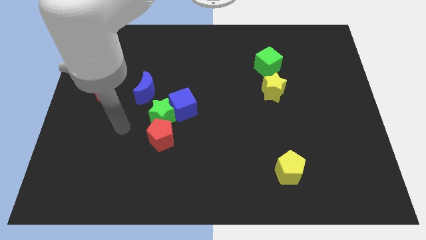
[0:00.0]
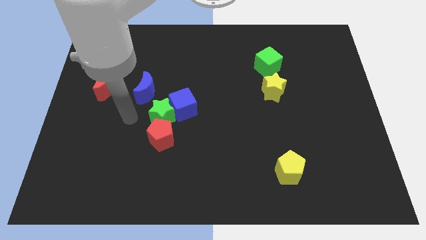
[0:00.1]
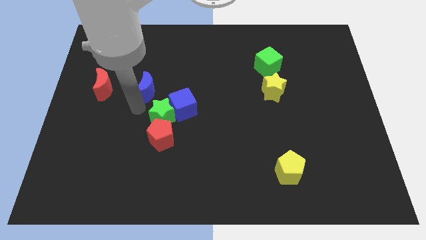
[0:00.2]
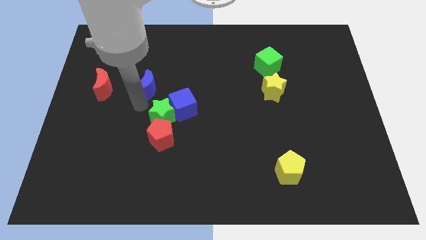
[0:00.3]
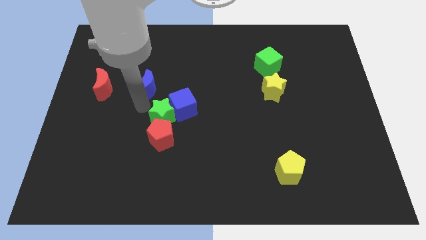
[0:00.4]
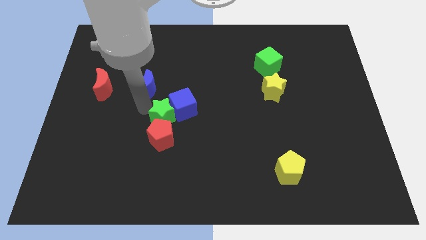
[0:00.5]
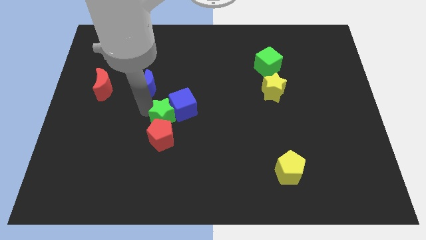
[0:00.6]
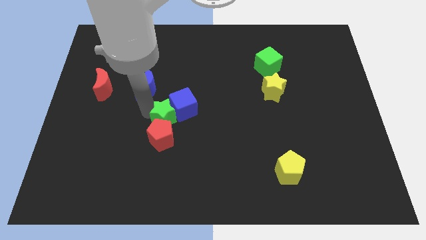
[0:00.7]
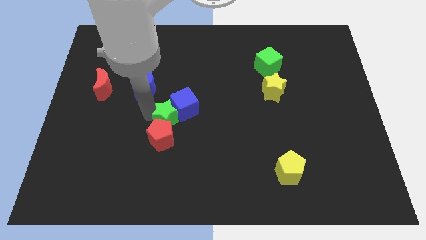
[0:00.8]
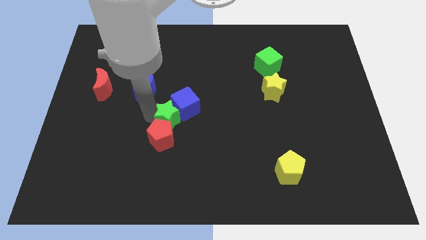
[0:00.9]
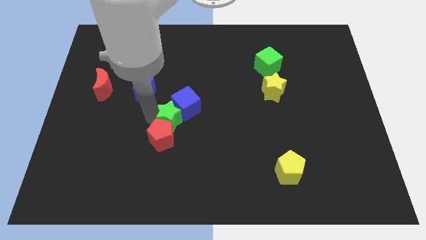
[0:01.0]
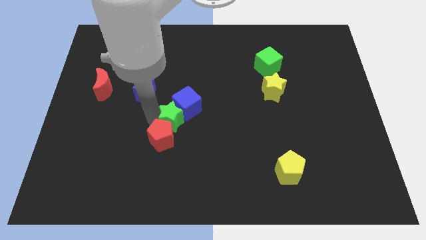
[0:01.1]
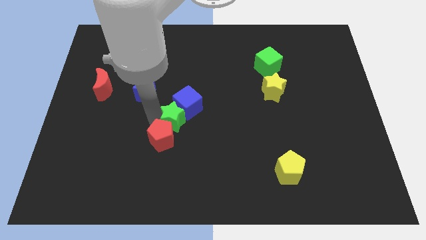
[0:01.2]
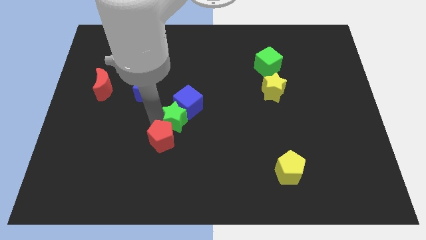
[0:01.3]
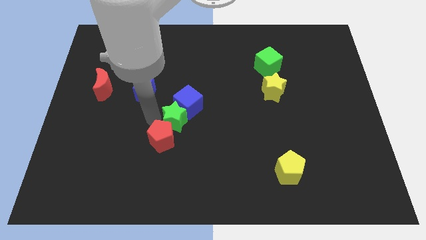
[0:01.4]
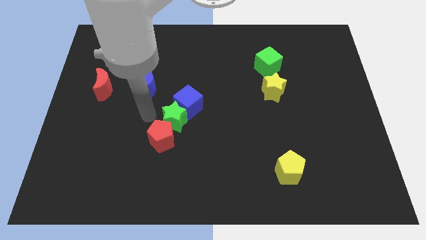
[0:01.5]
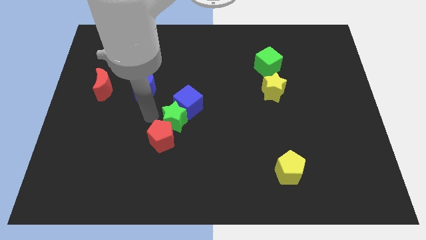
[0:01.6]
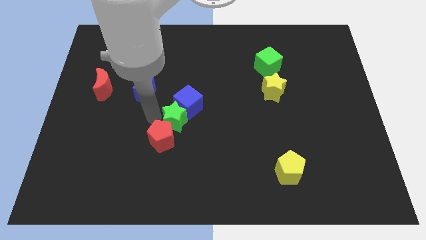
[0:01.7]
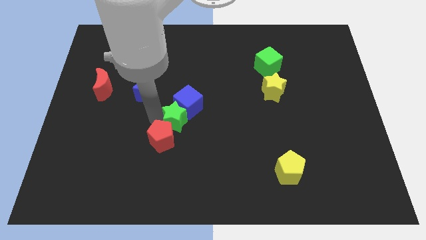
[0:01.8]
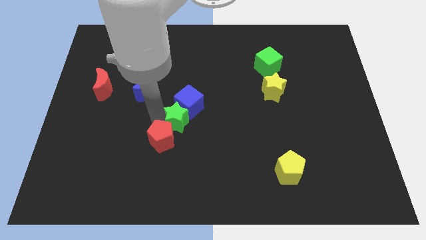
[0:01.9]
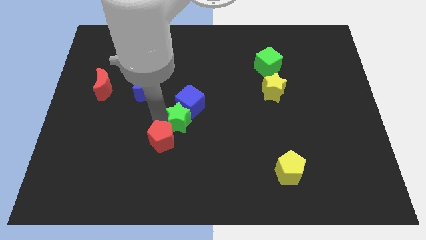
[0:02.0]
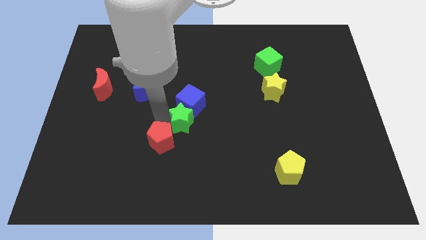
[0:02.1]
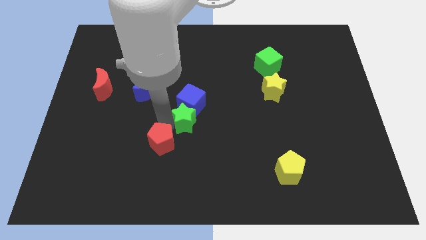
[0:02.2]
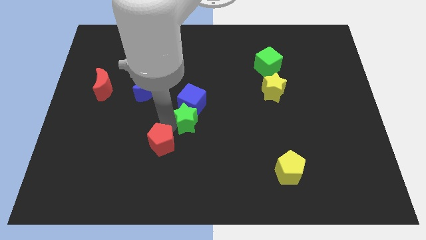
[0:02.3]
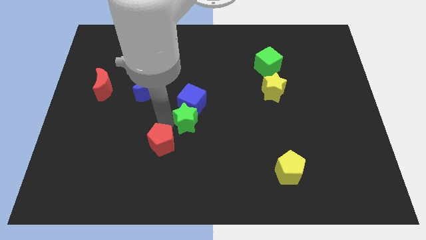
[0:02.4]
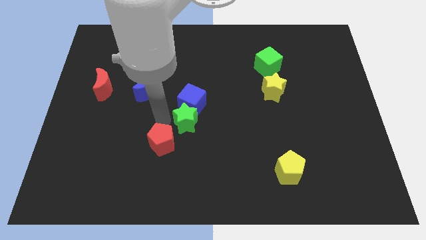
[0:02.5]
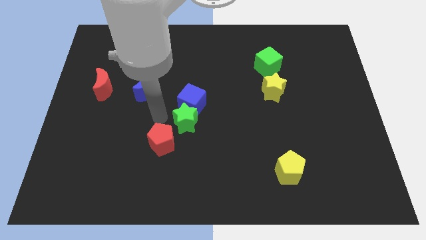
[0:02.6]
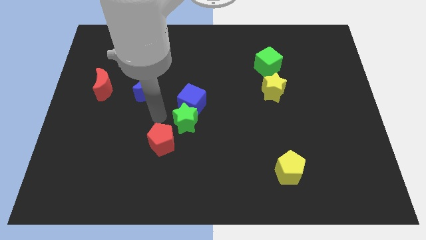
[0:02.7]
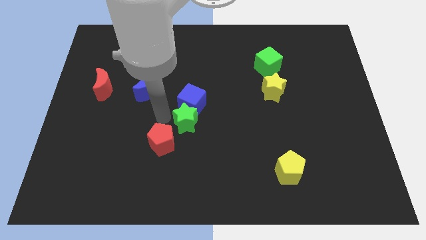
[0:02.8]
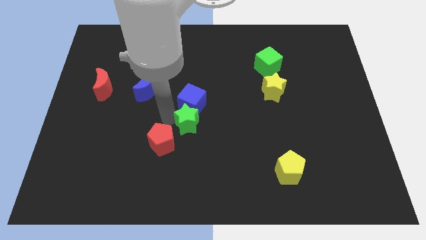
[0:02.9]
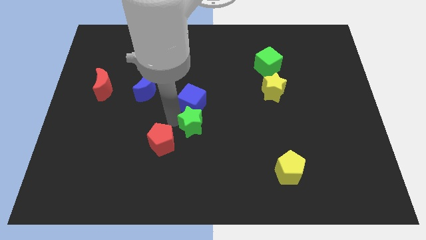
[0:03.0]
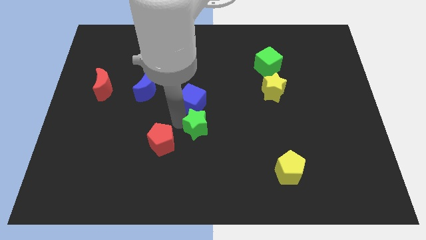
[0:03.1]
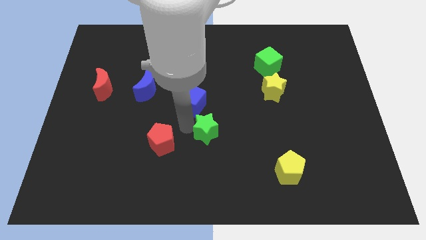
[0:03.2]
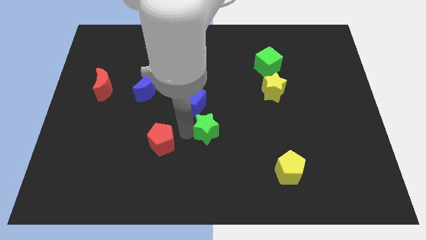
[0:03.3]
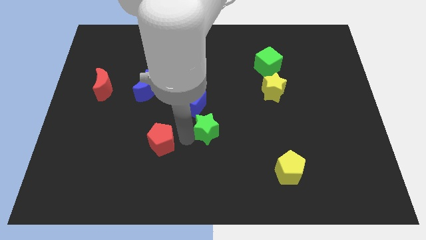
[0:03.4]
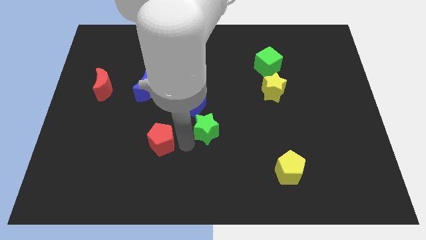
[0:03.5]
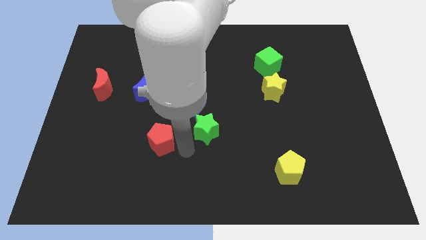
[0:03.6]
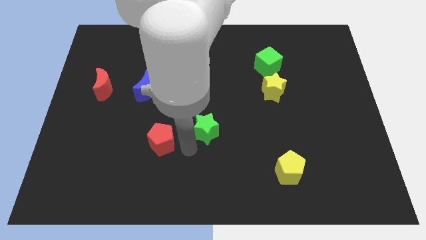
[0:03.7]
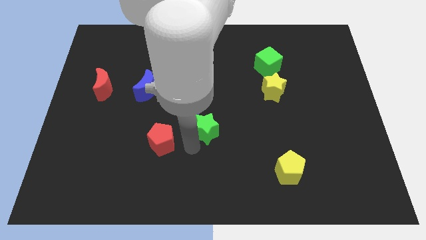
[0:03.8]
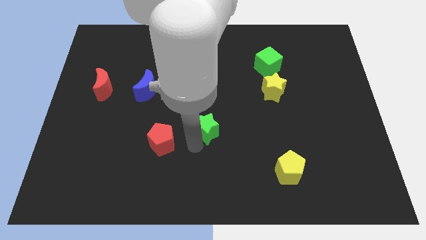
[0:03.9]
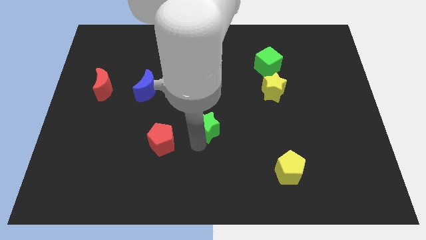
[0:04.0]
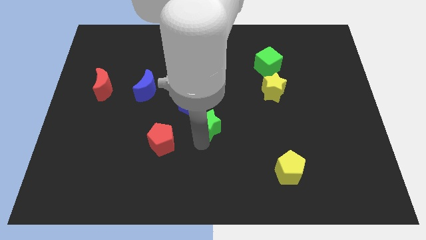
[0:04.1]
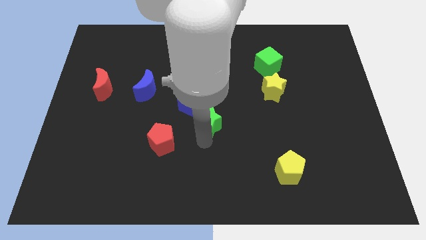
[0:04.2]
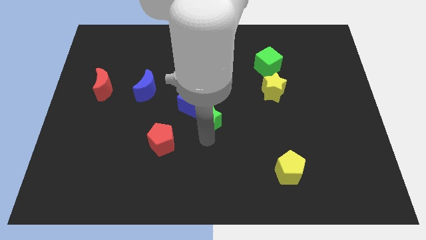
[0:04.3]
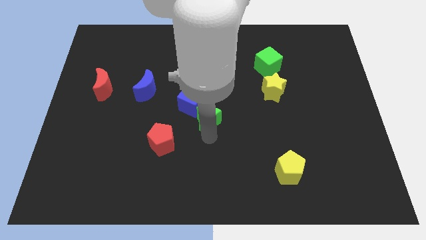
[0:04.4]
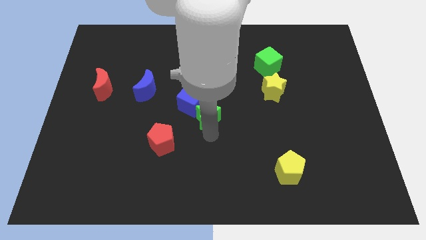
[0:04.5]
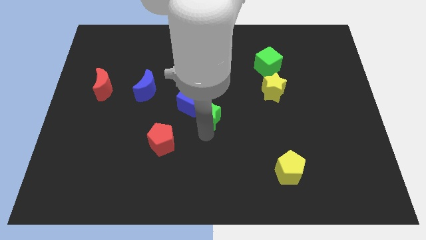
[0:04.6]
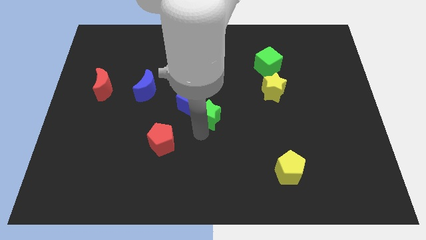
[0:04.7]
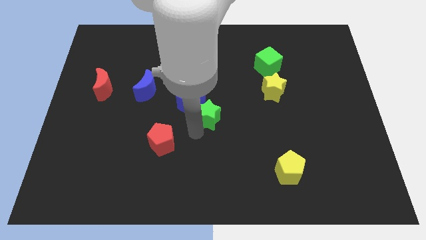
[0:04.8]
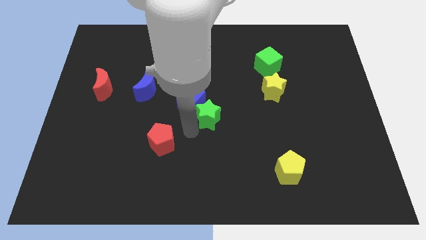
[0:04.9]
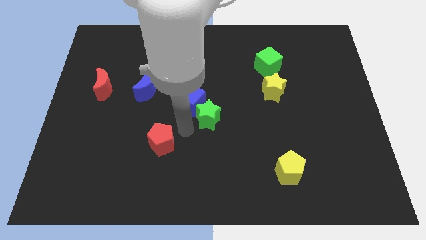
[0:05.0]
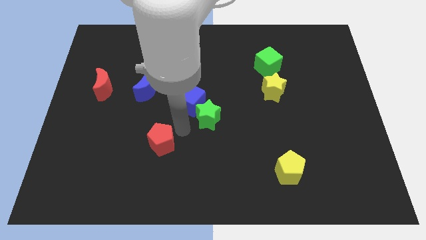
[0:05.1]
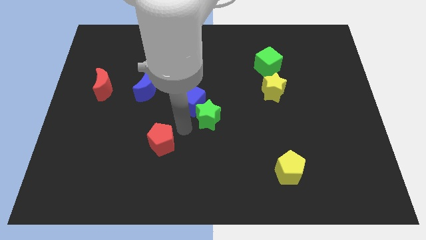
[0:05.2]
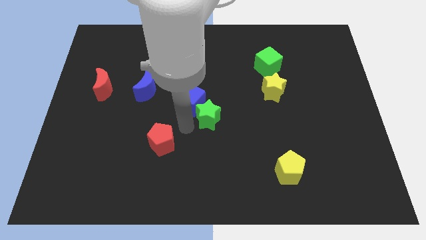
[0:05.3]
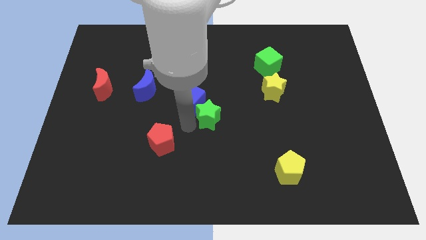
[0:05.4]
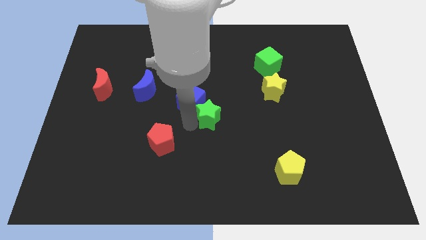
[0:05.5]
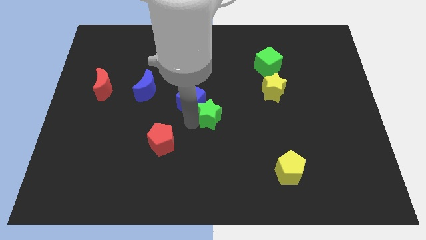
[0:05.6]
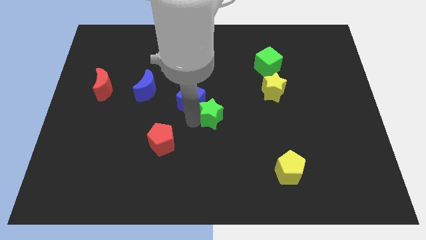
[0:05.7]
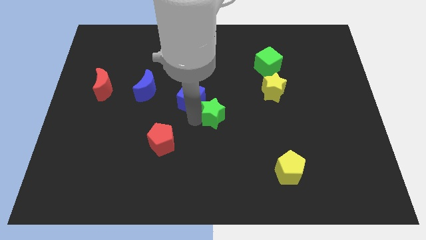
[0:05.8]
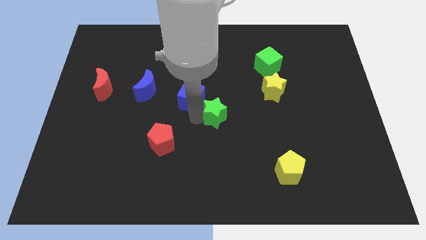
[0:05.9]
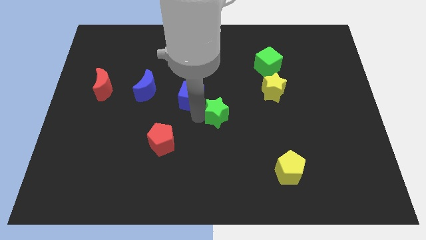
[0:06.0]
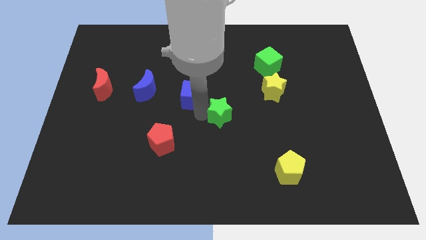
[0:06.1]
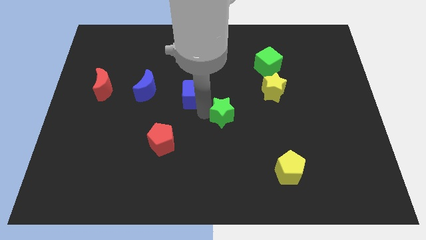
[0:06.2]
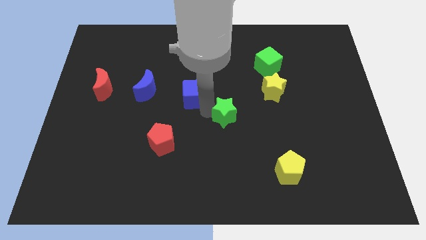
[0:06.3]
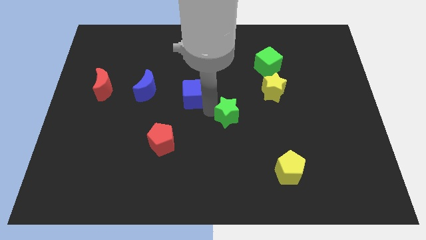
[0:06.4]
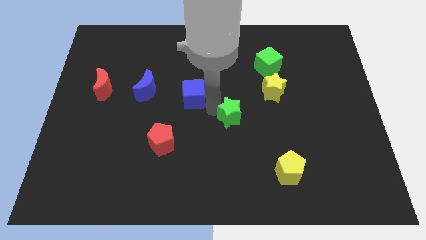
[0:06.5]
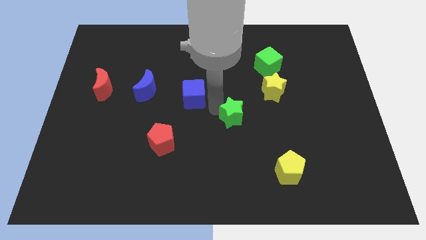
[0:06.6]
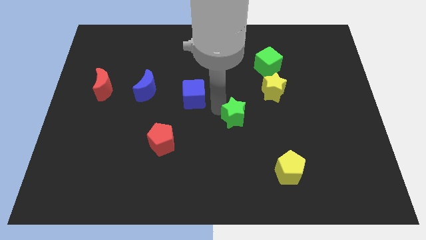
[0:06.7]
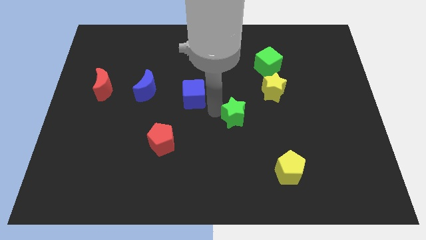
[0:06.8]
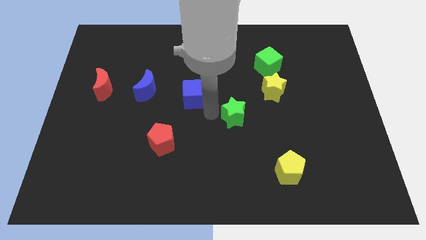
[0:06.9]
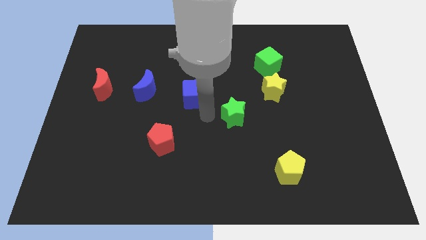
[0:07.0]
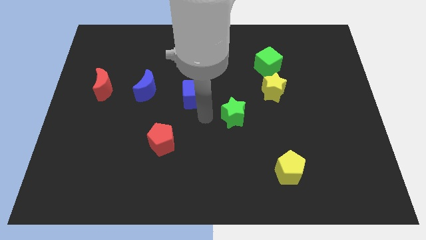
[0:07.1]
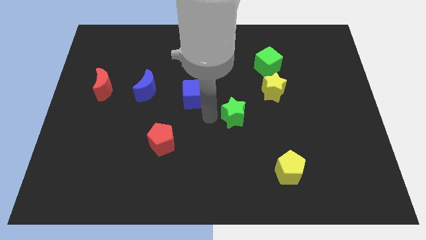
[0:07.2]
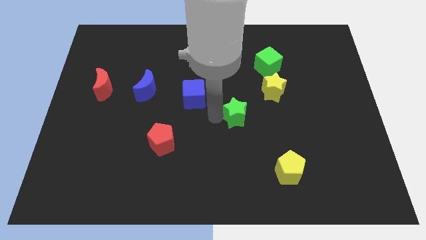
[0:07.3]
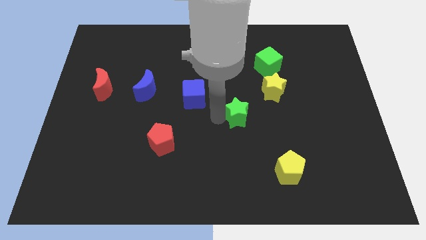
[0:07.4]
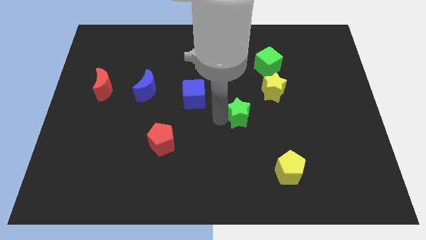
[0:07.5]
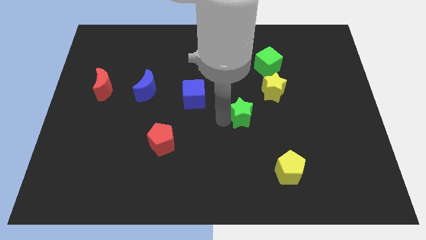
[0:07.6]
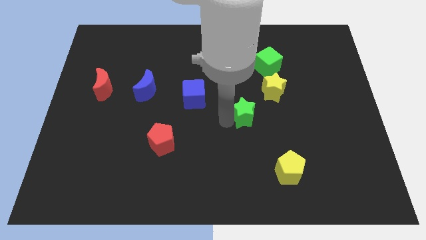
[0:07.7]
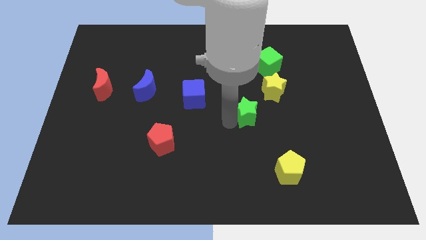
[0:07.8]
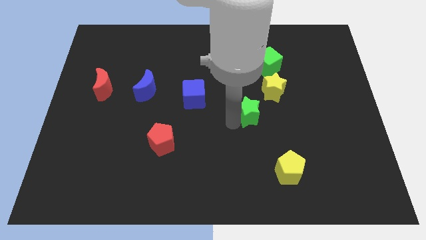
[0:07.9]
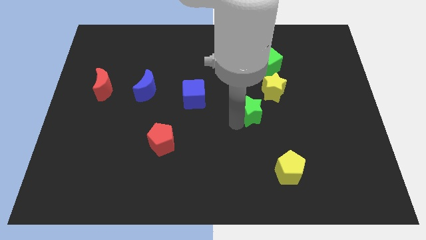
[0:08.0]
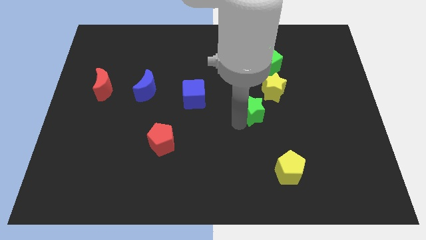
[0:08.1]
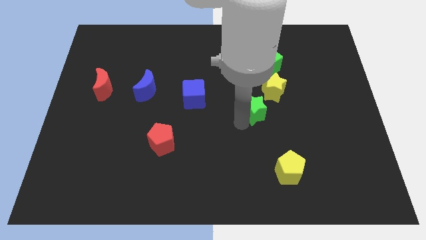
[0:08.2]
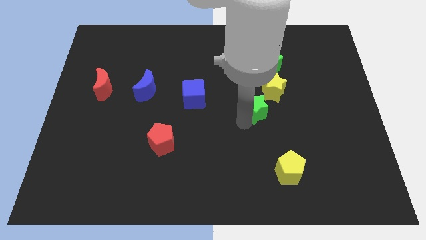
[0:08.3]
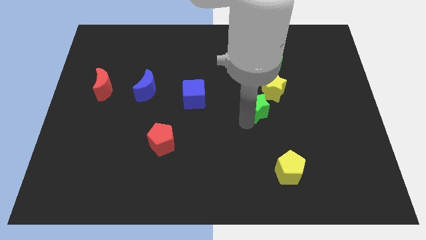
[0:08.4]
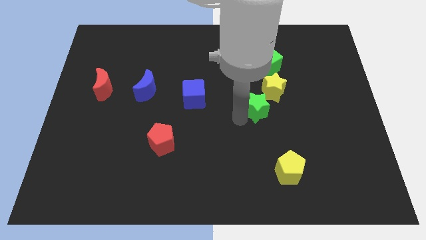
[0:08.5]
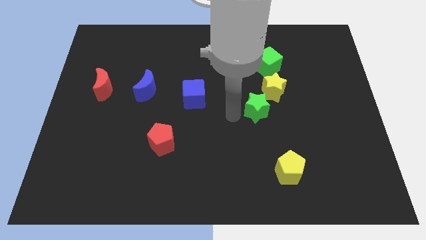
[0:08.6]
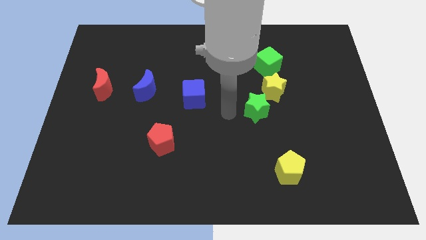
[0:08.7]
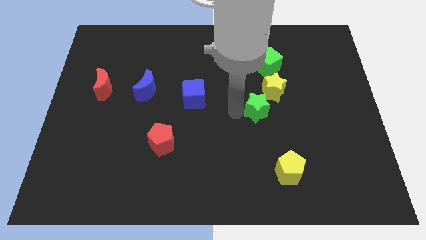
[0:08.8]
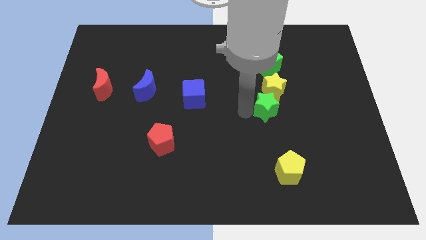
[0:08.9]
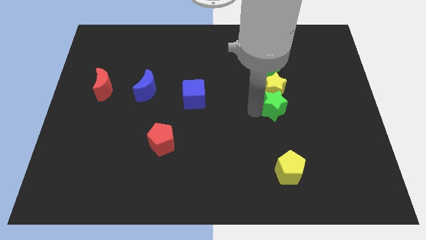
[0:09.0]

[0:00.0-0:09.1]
push the green star diagonally down and to the right of the yellow star
